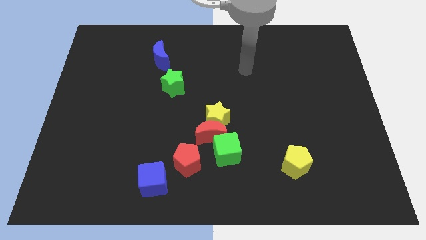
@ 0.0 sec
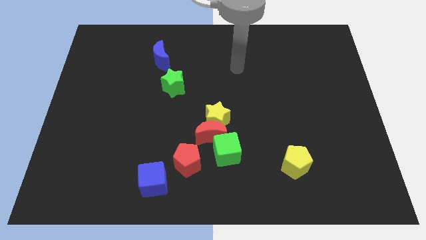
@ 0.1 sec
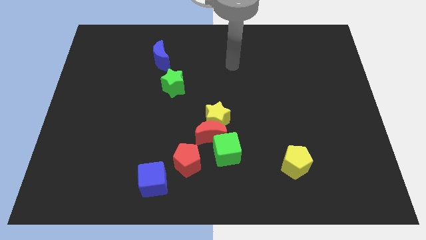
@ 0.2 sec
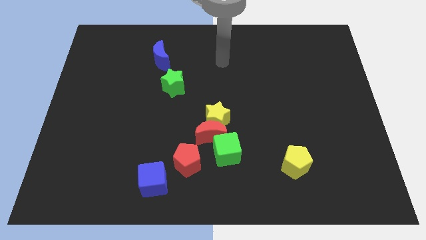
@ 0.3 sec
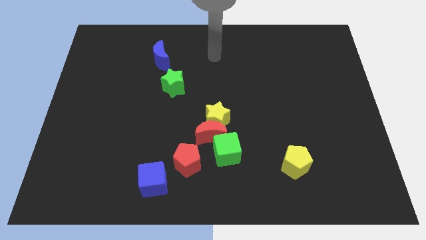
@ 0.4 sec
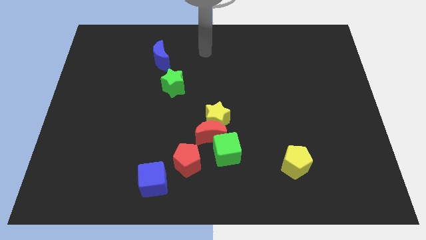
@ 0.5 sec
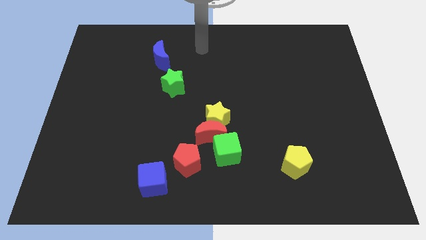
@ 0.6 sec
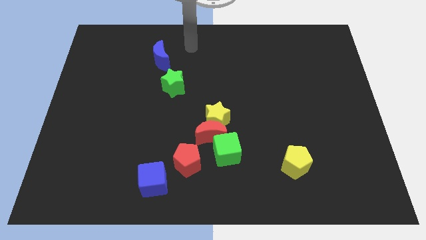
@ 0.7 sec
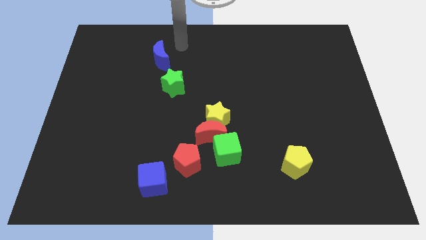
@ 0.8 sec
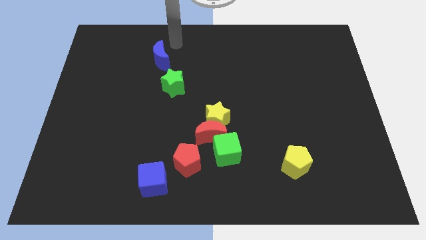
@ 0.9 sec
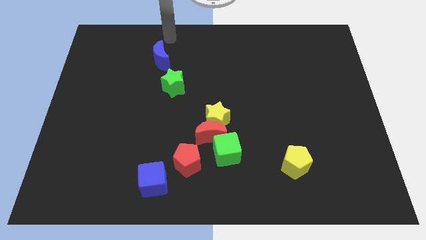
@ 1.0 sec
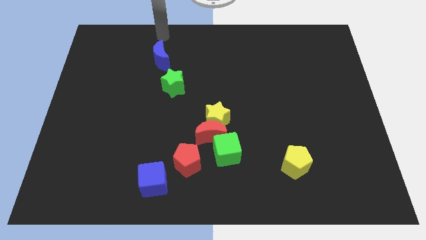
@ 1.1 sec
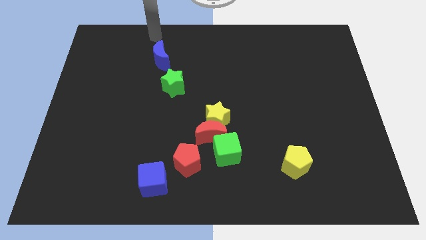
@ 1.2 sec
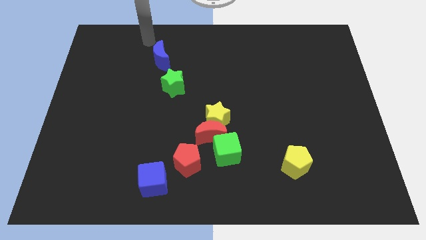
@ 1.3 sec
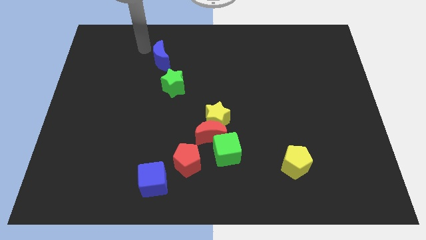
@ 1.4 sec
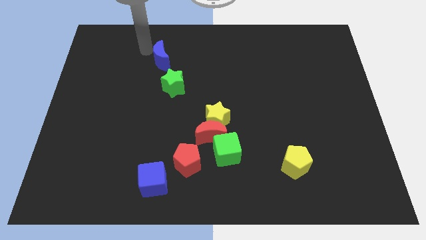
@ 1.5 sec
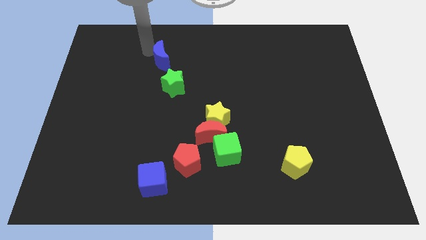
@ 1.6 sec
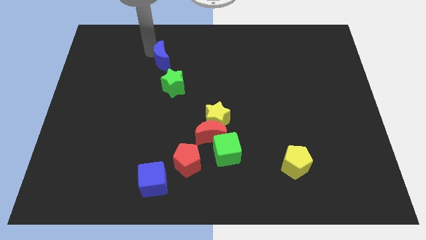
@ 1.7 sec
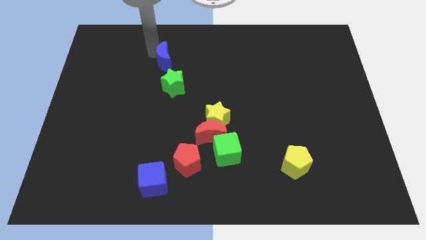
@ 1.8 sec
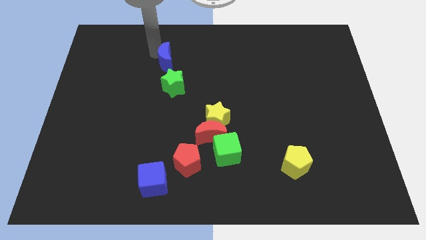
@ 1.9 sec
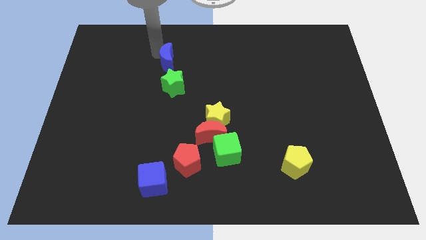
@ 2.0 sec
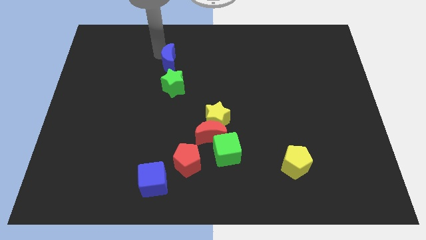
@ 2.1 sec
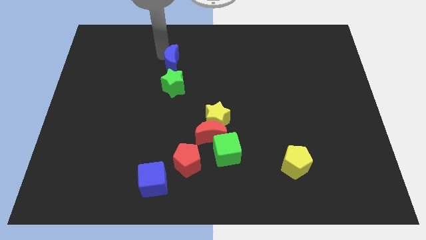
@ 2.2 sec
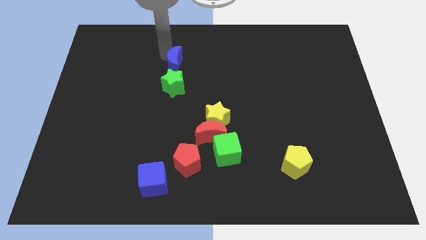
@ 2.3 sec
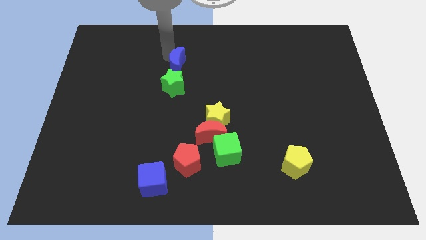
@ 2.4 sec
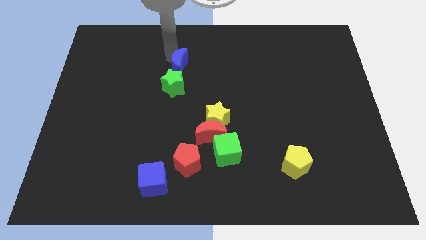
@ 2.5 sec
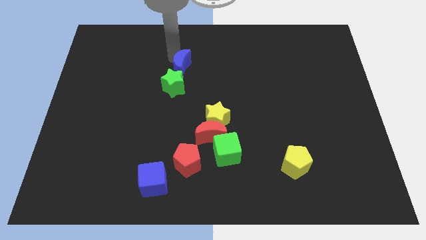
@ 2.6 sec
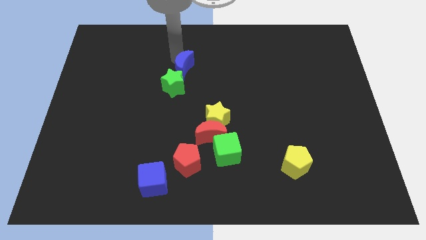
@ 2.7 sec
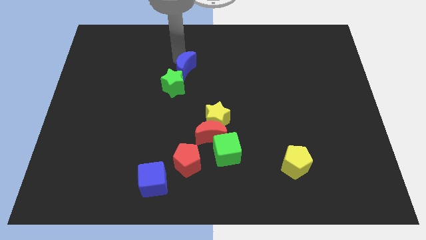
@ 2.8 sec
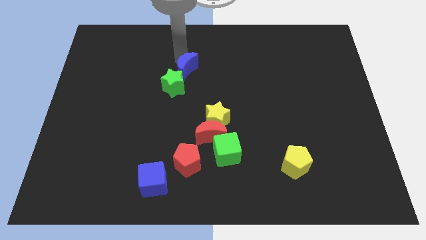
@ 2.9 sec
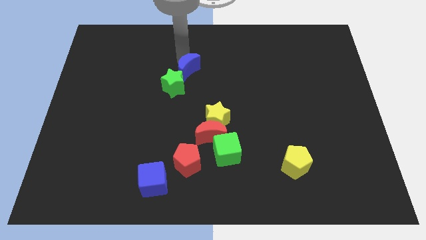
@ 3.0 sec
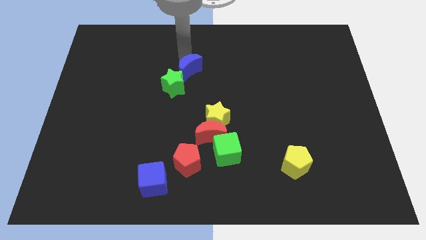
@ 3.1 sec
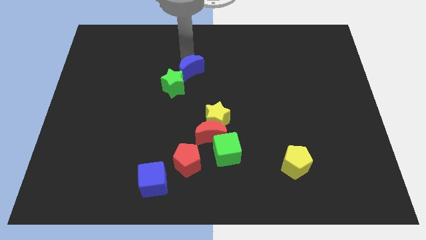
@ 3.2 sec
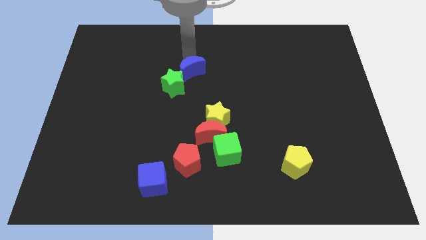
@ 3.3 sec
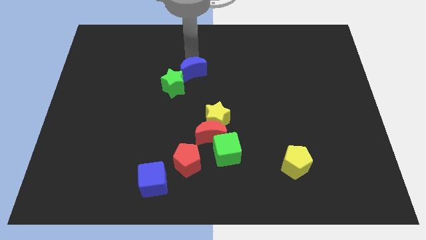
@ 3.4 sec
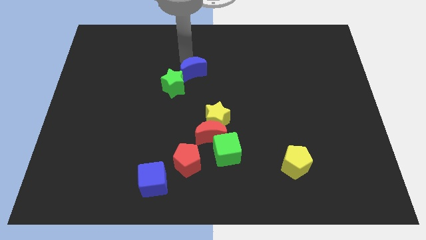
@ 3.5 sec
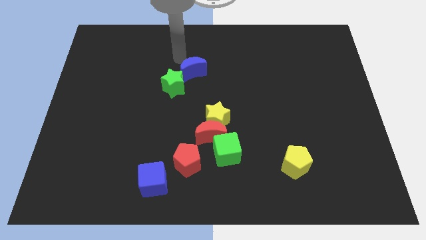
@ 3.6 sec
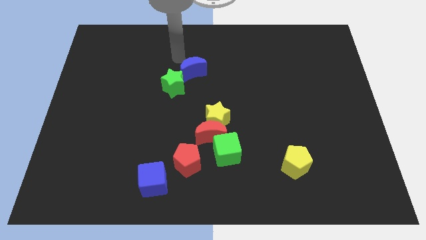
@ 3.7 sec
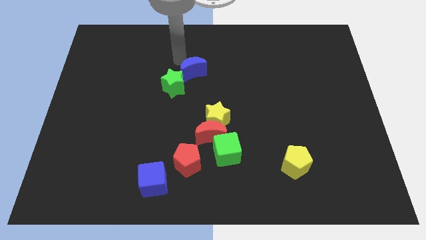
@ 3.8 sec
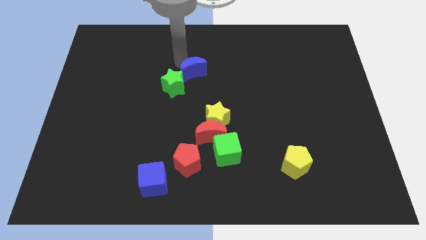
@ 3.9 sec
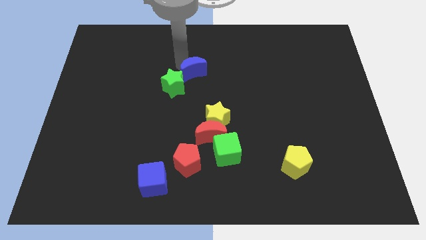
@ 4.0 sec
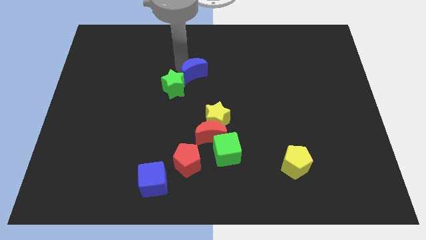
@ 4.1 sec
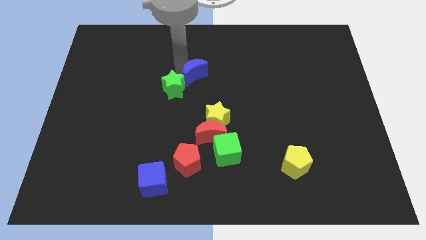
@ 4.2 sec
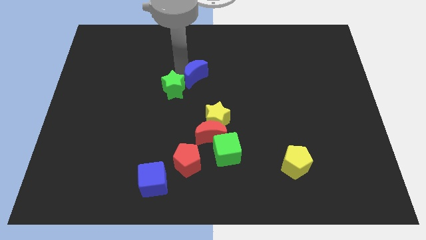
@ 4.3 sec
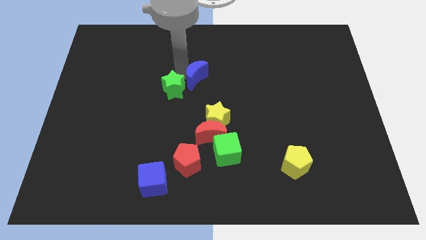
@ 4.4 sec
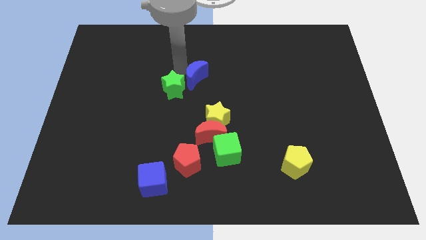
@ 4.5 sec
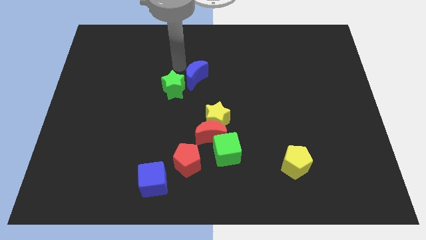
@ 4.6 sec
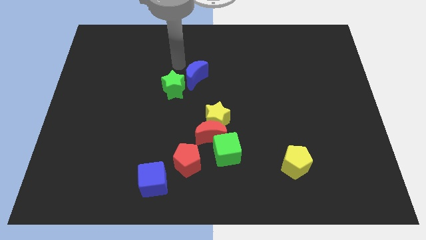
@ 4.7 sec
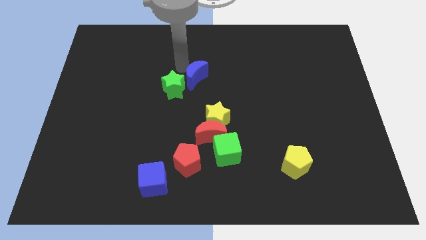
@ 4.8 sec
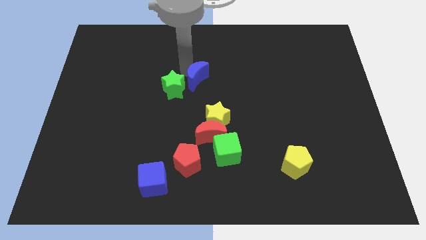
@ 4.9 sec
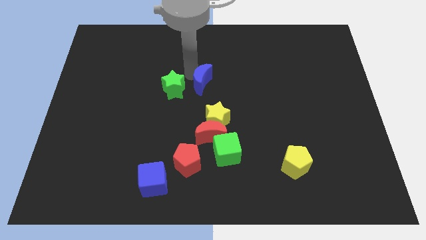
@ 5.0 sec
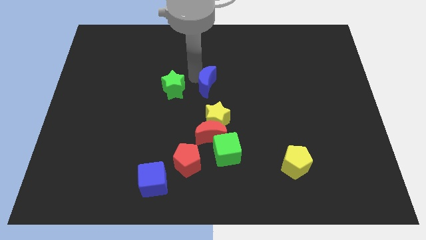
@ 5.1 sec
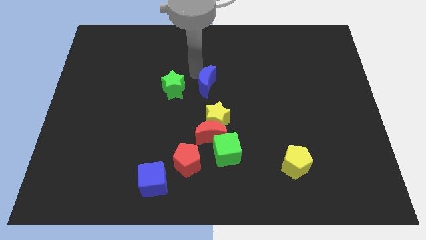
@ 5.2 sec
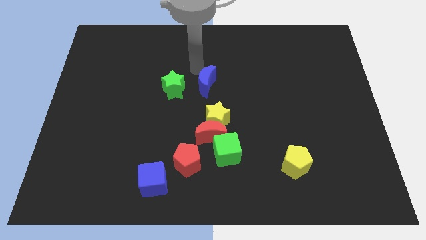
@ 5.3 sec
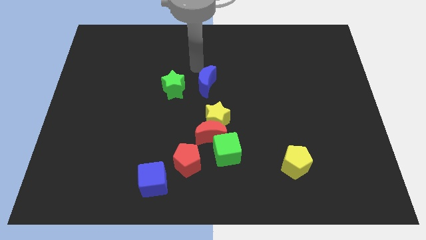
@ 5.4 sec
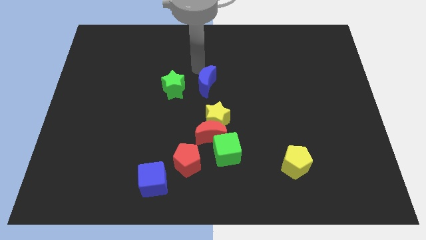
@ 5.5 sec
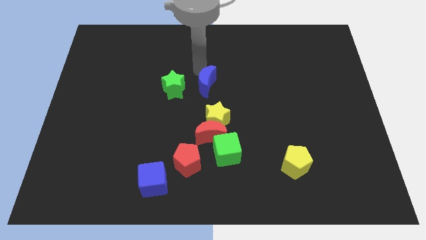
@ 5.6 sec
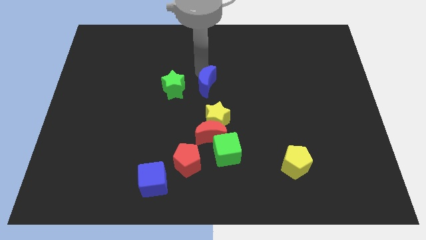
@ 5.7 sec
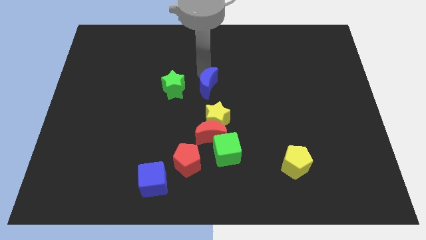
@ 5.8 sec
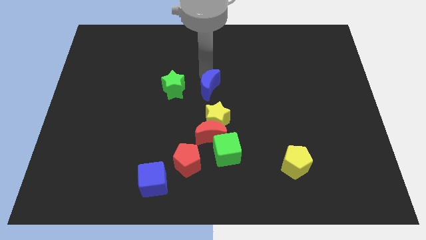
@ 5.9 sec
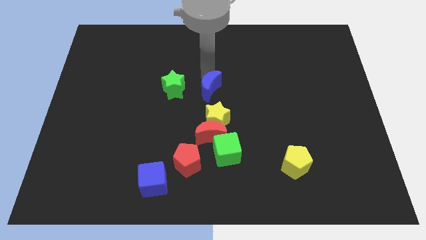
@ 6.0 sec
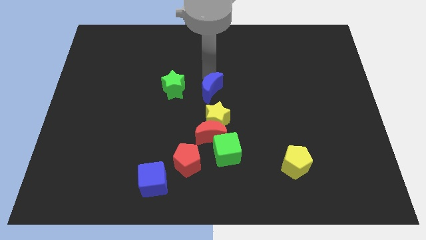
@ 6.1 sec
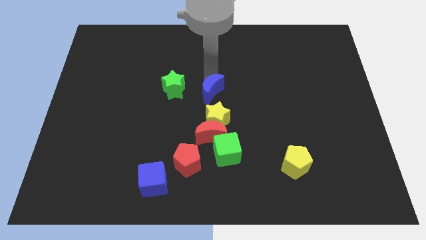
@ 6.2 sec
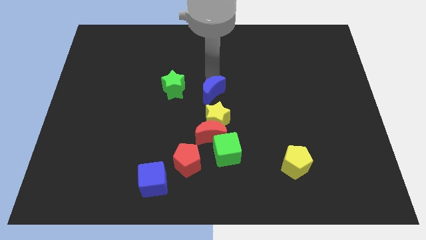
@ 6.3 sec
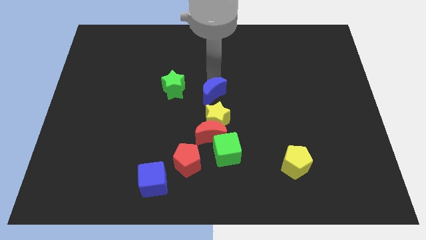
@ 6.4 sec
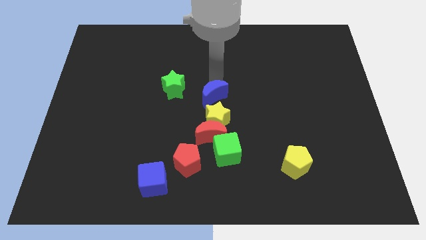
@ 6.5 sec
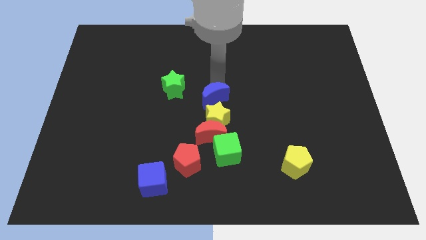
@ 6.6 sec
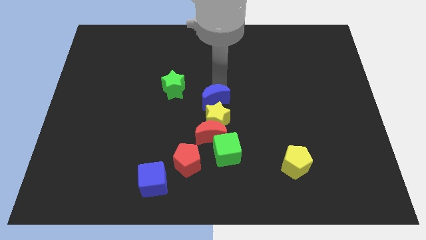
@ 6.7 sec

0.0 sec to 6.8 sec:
put the blue moon next to the yellow star
